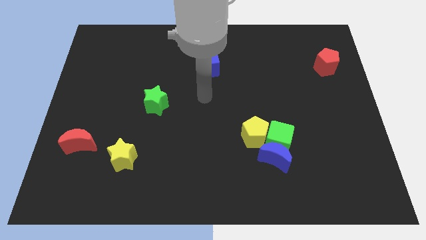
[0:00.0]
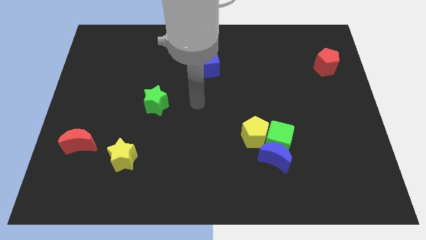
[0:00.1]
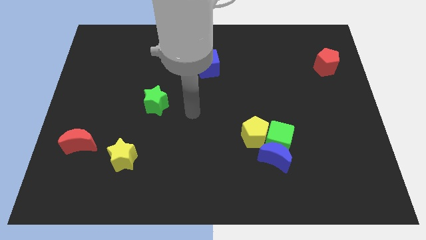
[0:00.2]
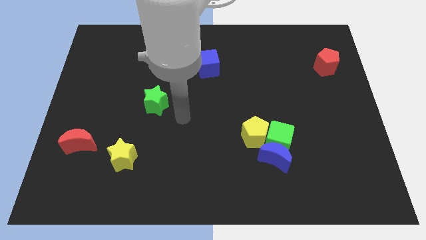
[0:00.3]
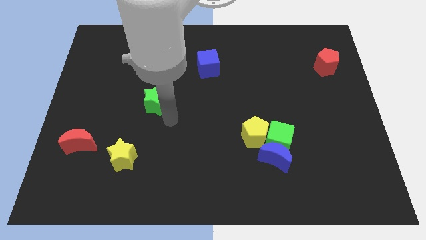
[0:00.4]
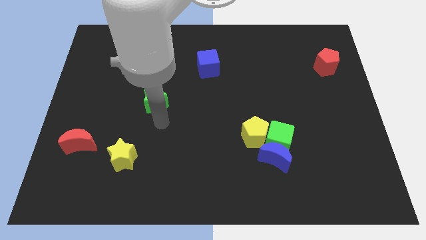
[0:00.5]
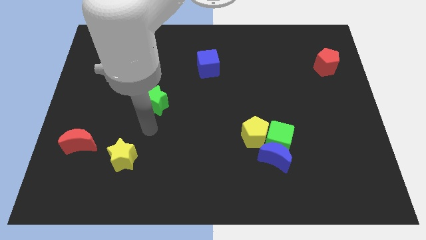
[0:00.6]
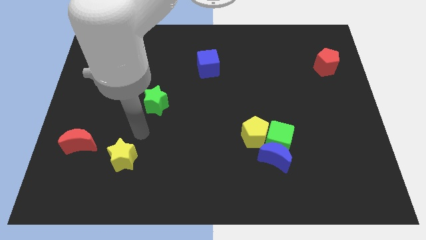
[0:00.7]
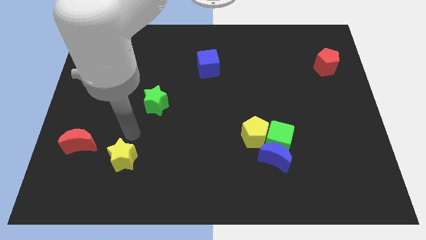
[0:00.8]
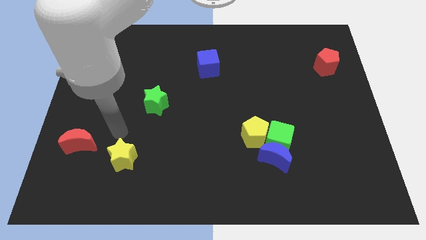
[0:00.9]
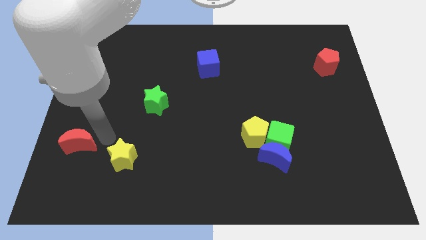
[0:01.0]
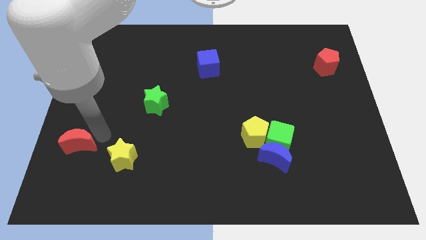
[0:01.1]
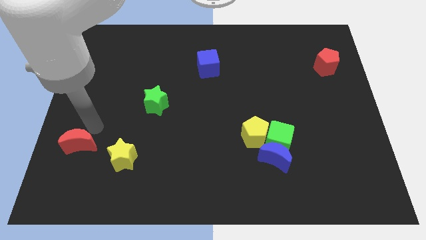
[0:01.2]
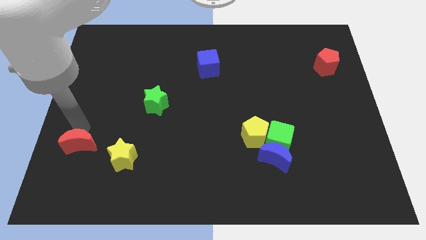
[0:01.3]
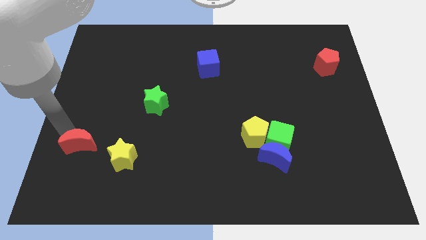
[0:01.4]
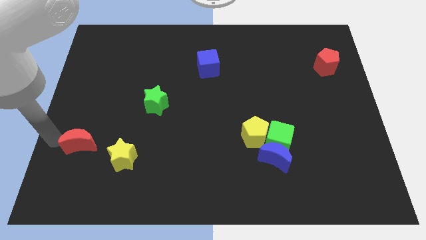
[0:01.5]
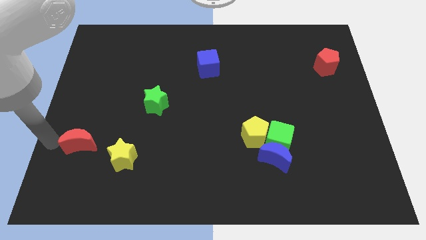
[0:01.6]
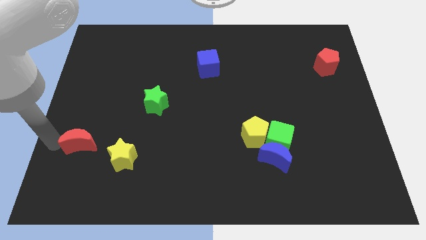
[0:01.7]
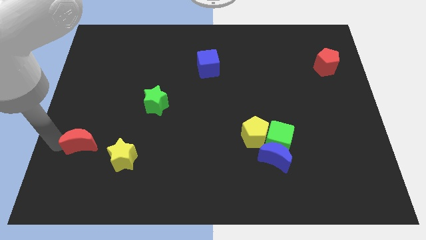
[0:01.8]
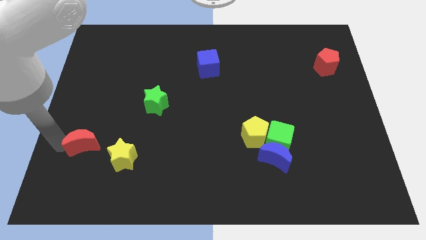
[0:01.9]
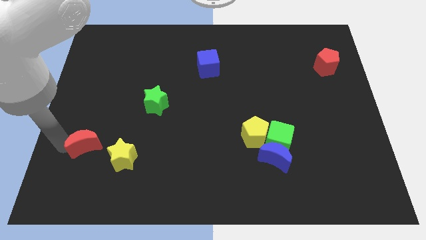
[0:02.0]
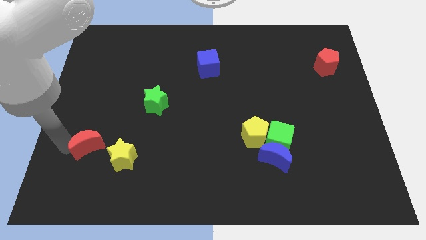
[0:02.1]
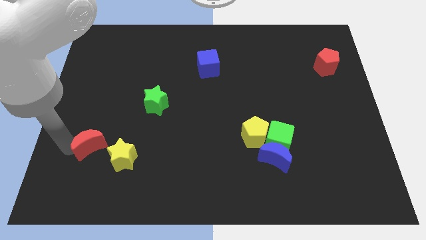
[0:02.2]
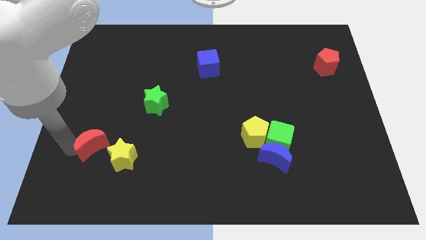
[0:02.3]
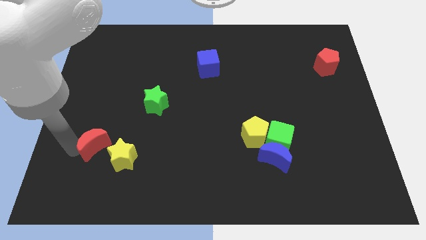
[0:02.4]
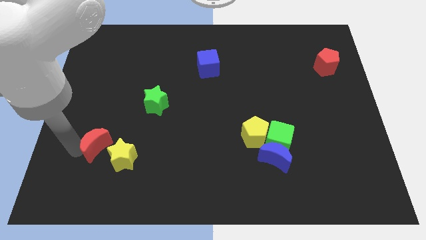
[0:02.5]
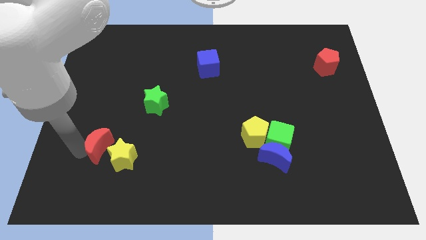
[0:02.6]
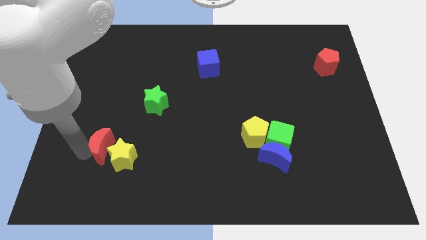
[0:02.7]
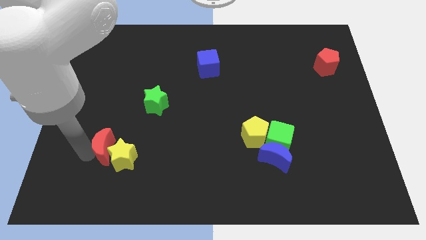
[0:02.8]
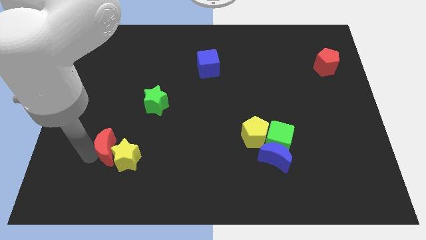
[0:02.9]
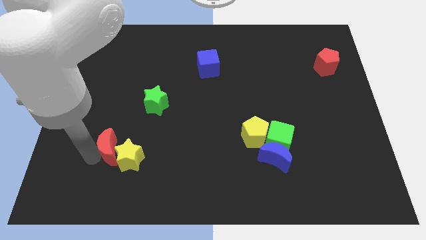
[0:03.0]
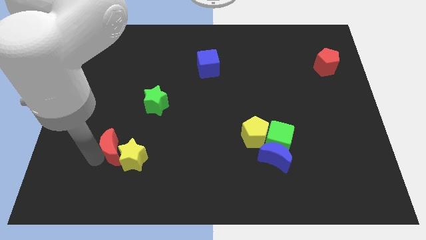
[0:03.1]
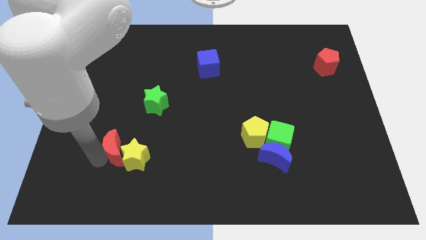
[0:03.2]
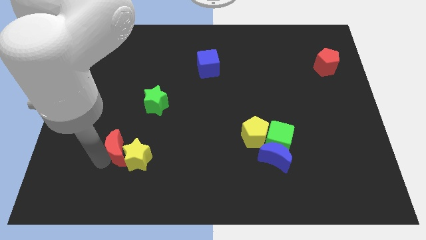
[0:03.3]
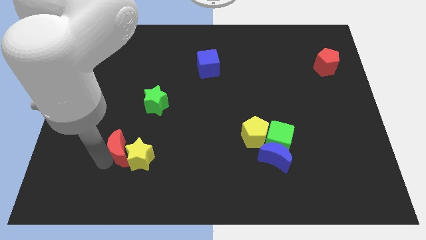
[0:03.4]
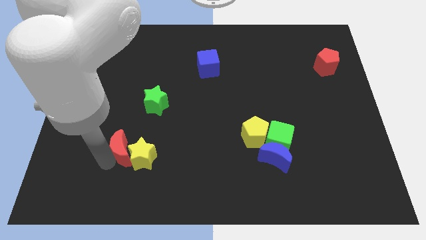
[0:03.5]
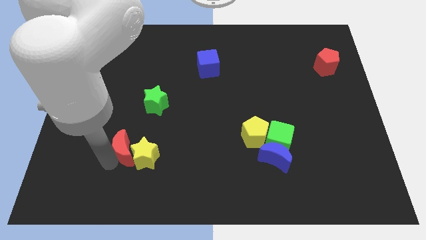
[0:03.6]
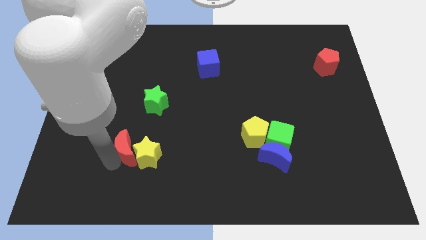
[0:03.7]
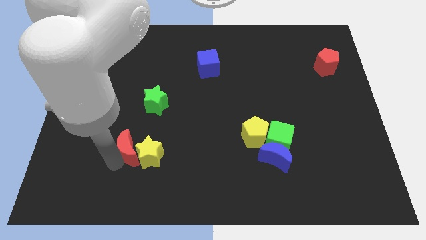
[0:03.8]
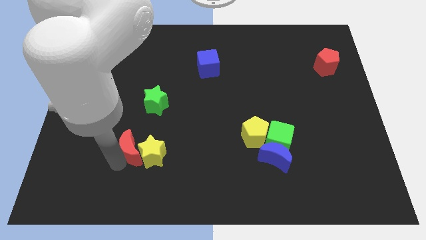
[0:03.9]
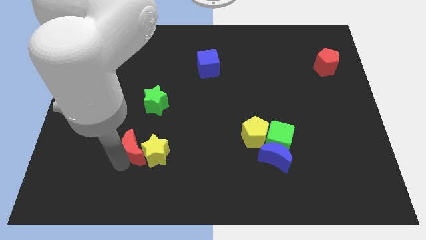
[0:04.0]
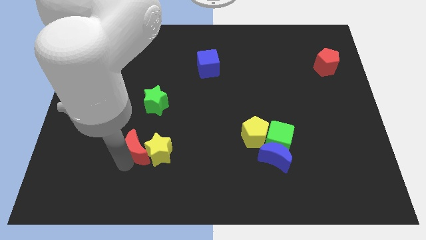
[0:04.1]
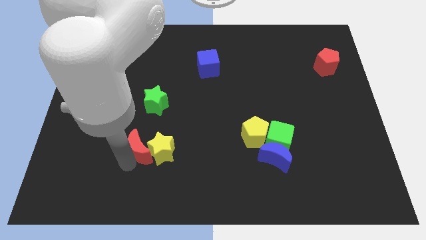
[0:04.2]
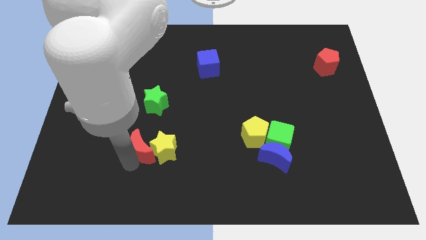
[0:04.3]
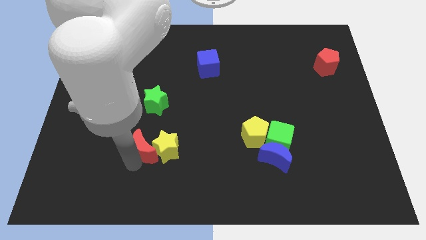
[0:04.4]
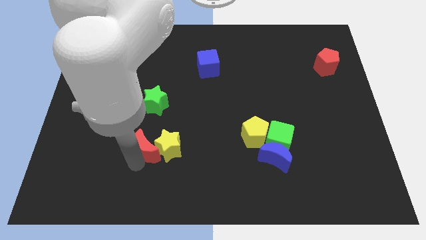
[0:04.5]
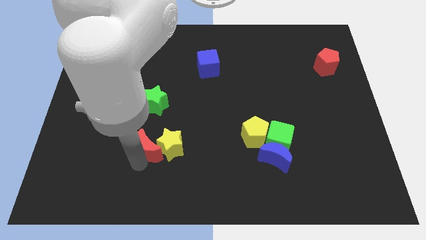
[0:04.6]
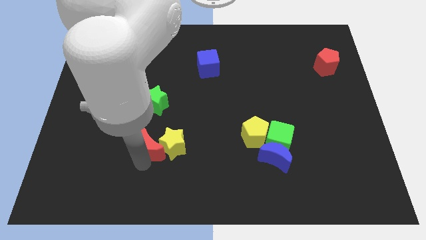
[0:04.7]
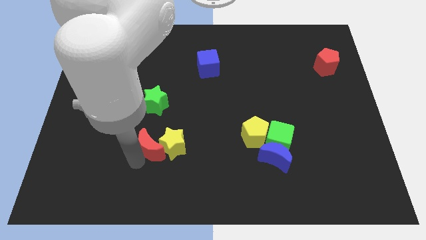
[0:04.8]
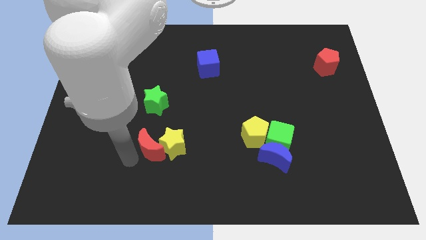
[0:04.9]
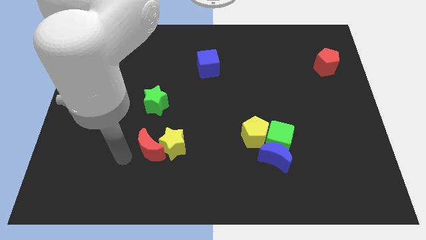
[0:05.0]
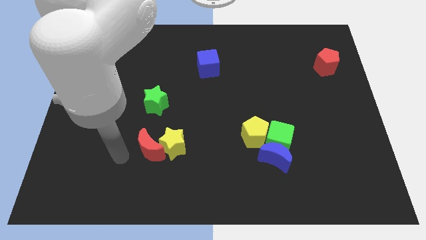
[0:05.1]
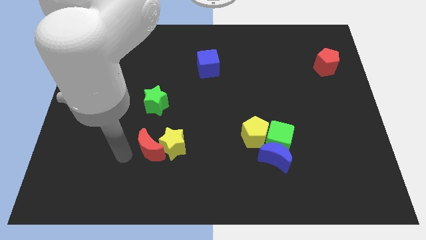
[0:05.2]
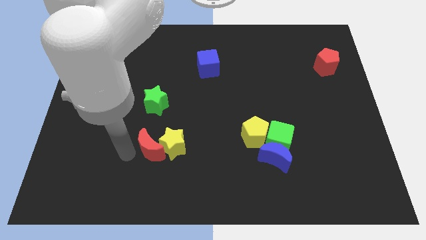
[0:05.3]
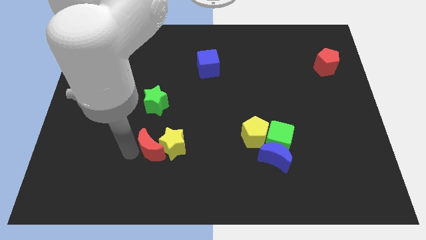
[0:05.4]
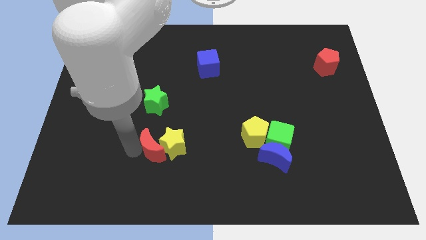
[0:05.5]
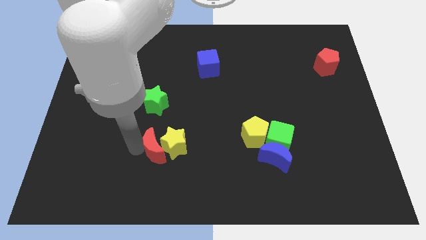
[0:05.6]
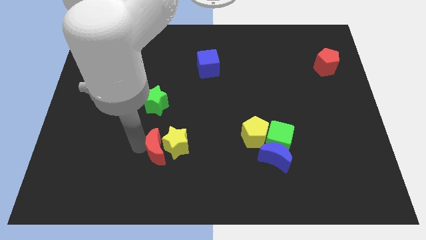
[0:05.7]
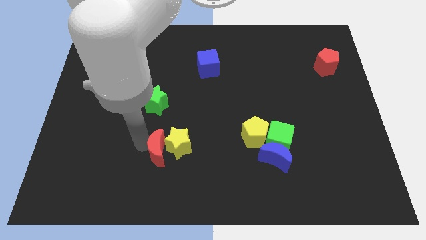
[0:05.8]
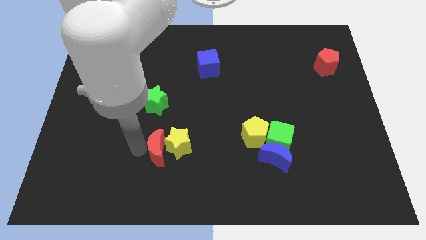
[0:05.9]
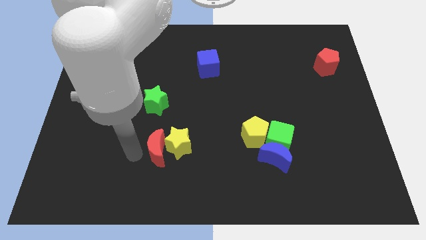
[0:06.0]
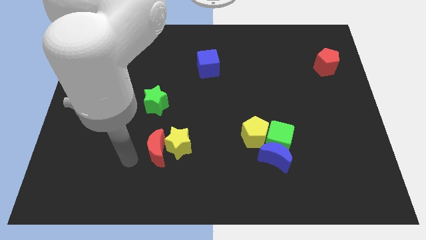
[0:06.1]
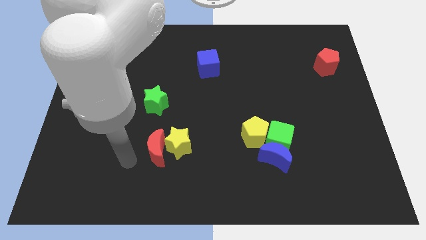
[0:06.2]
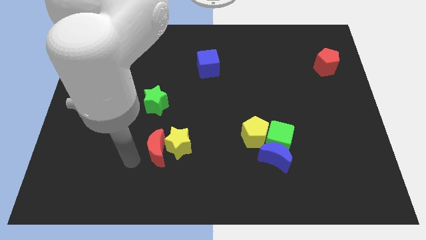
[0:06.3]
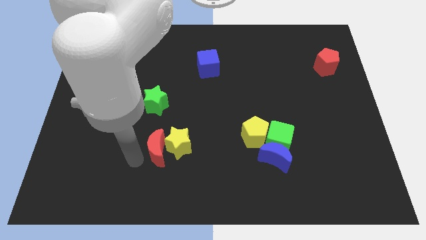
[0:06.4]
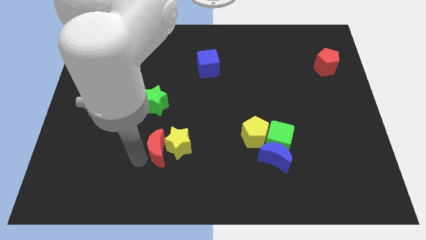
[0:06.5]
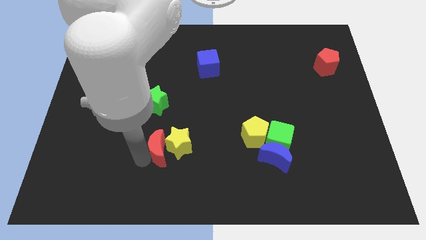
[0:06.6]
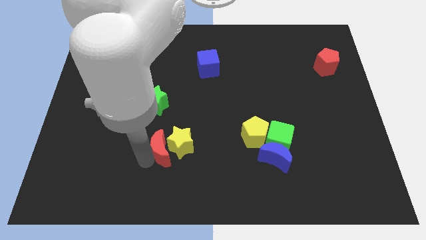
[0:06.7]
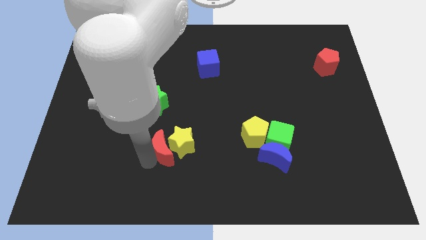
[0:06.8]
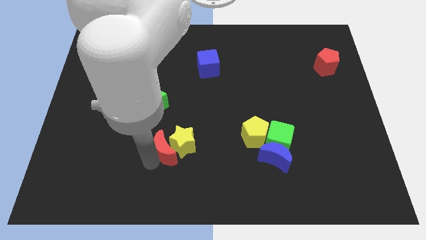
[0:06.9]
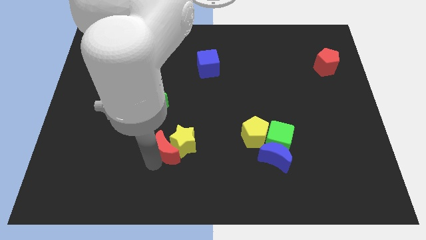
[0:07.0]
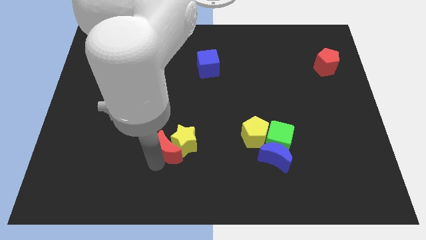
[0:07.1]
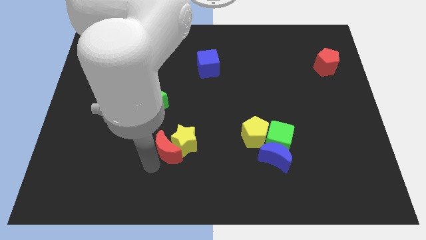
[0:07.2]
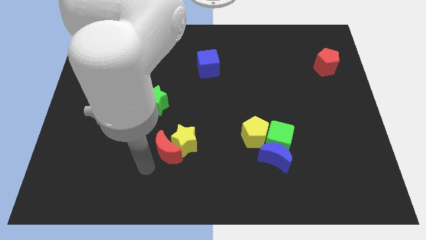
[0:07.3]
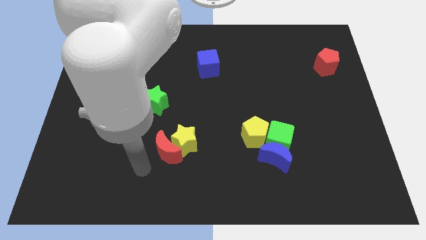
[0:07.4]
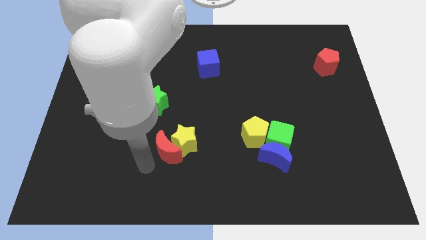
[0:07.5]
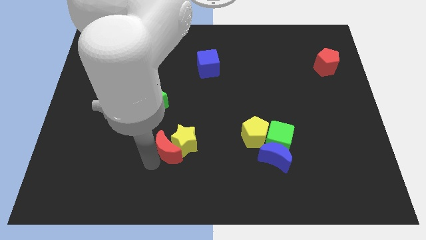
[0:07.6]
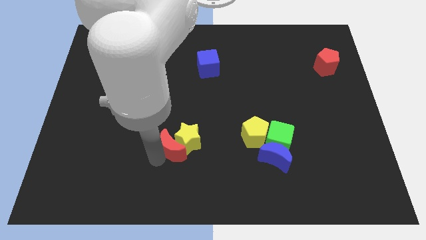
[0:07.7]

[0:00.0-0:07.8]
push the red moon right

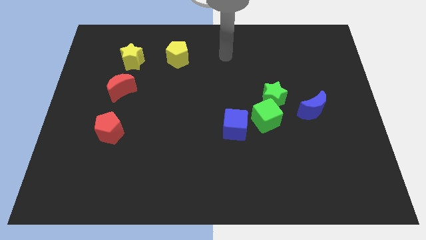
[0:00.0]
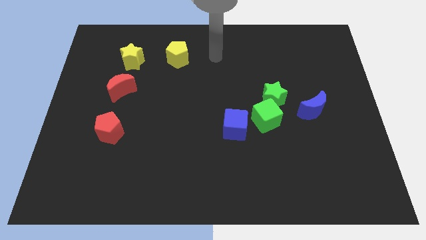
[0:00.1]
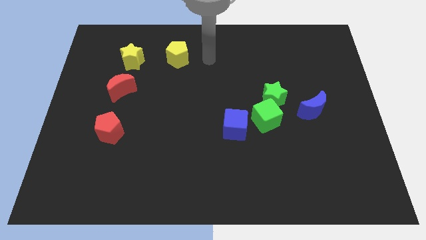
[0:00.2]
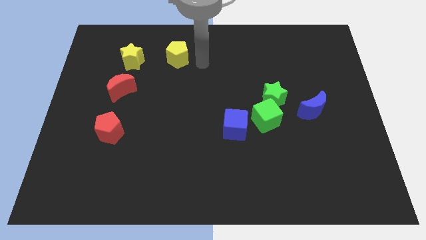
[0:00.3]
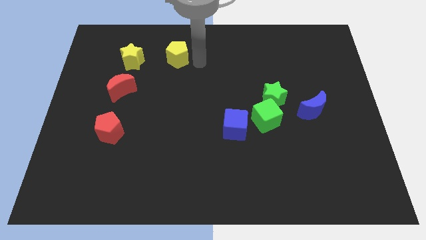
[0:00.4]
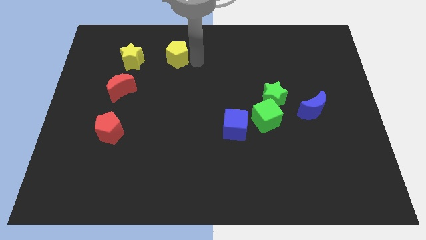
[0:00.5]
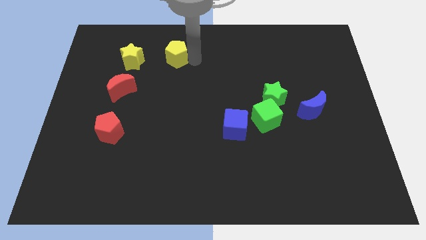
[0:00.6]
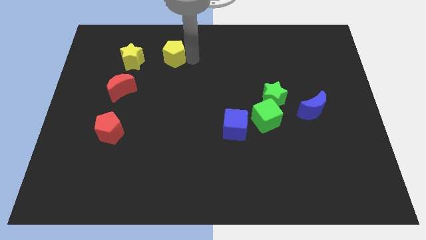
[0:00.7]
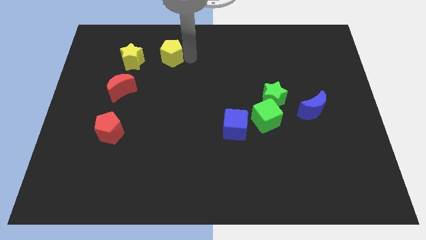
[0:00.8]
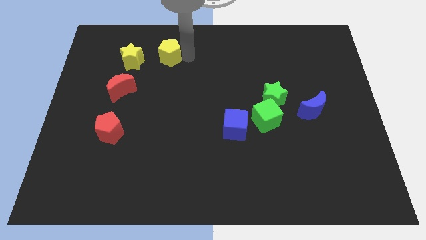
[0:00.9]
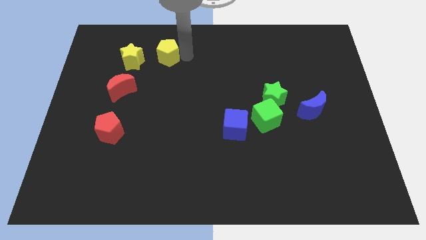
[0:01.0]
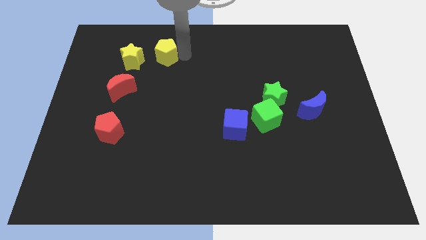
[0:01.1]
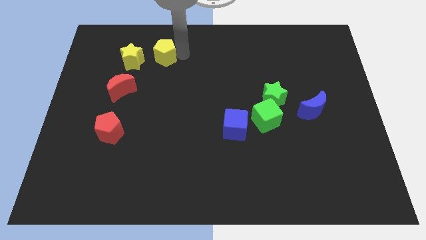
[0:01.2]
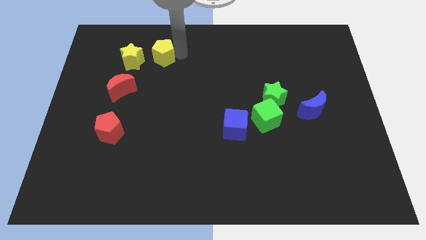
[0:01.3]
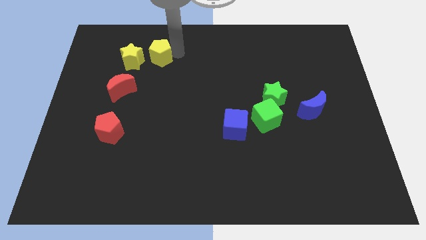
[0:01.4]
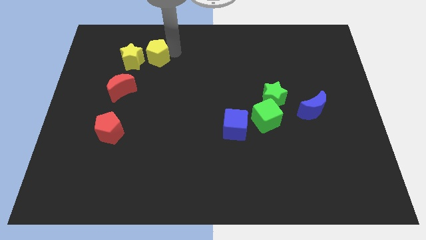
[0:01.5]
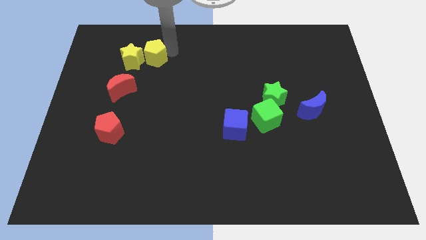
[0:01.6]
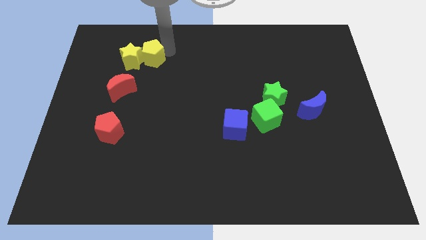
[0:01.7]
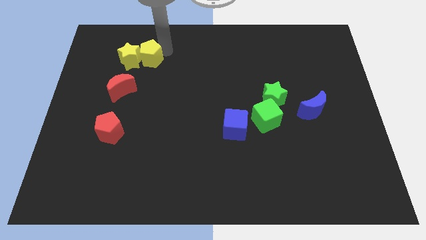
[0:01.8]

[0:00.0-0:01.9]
move the yellow pentagon to the left slightly
